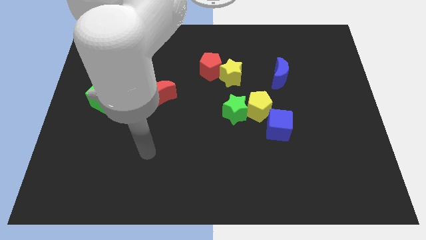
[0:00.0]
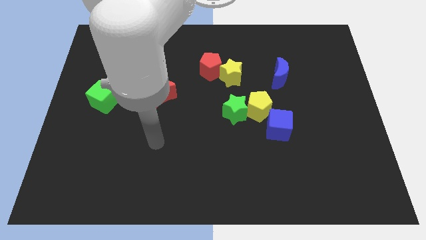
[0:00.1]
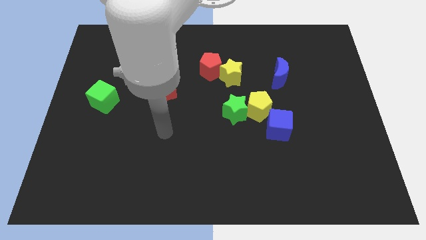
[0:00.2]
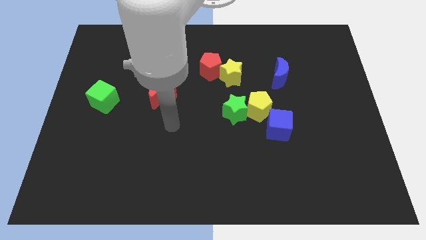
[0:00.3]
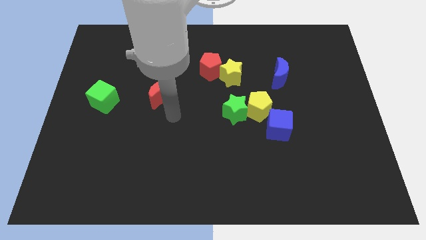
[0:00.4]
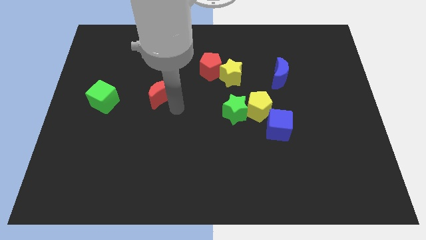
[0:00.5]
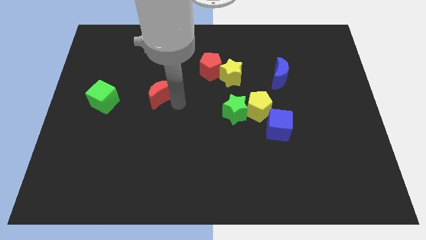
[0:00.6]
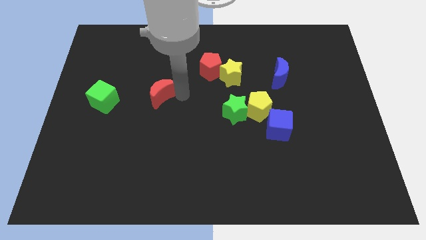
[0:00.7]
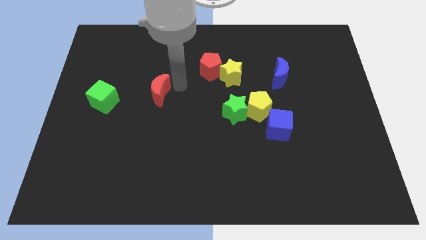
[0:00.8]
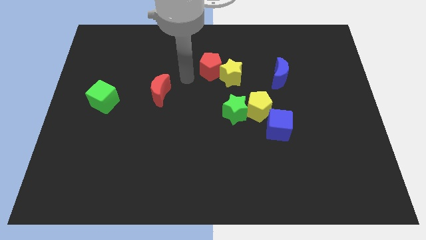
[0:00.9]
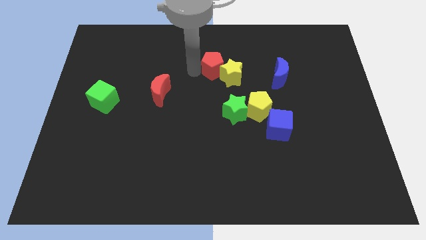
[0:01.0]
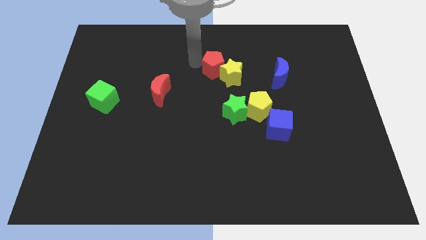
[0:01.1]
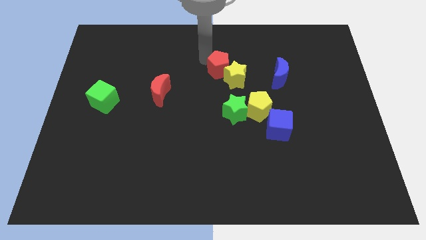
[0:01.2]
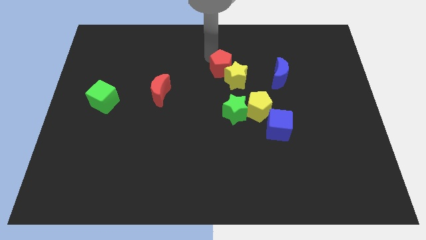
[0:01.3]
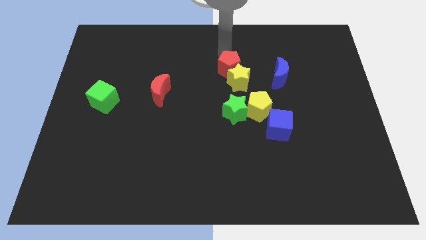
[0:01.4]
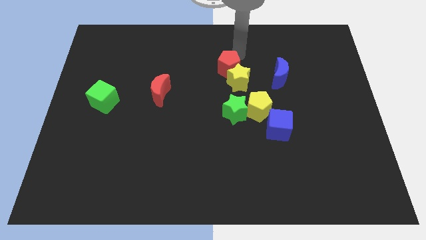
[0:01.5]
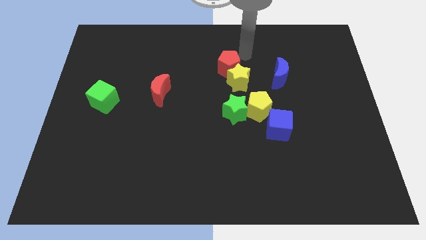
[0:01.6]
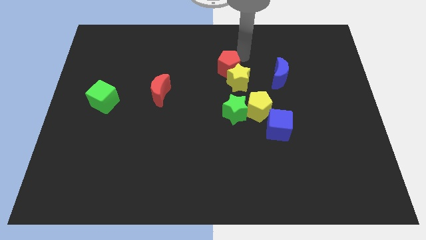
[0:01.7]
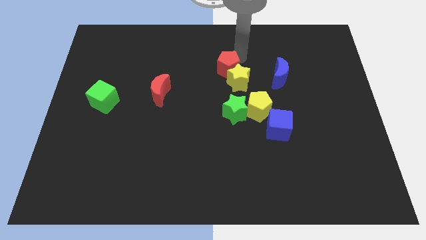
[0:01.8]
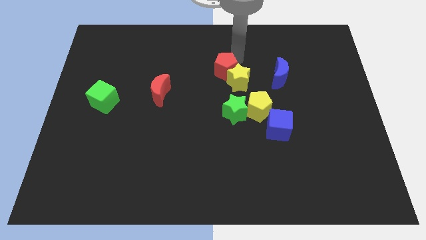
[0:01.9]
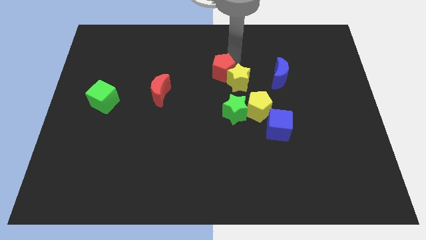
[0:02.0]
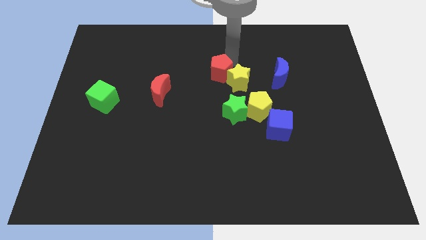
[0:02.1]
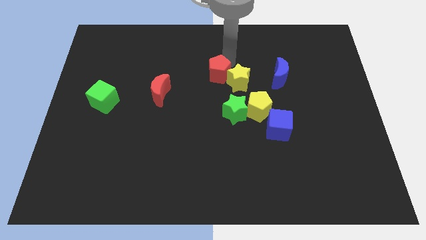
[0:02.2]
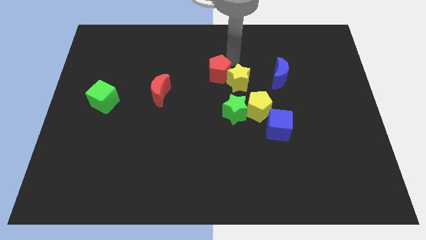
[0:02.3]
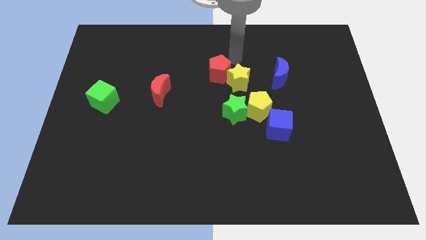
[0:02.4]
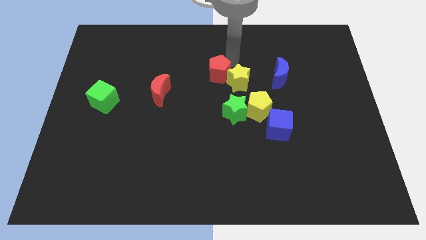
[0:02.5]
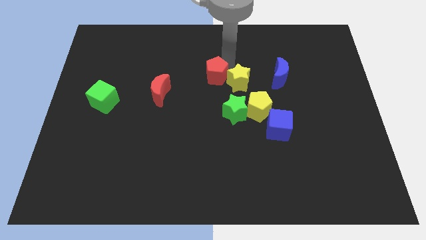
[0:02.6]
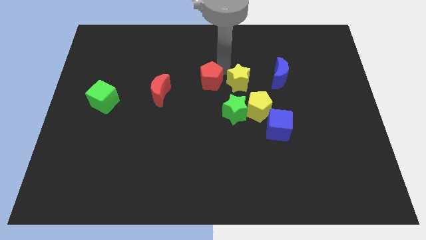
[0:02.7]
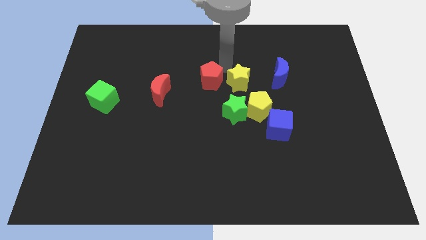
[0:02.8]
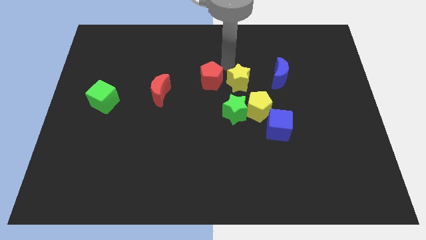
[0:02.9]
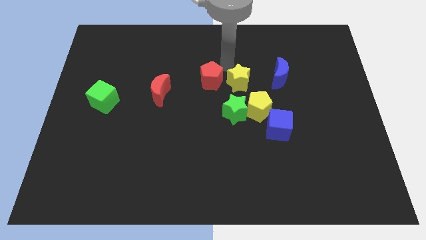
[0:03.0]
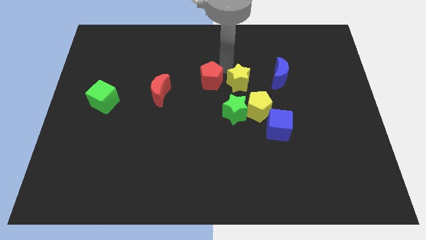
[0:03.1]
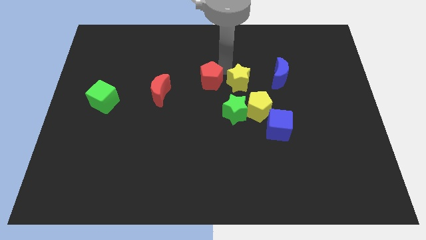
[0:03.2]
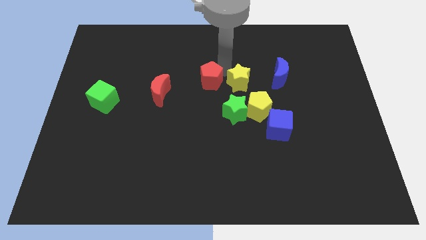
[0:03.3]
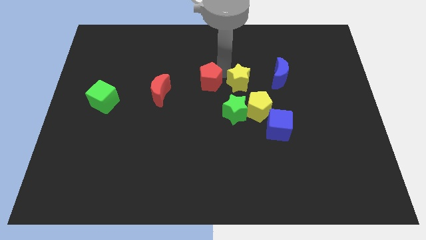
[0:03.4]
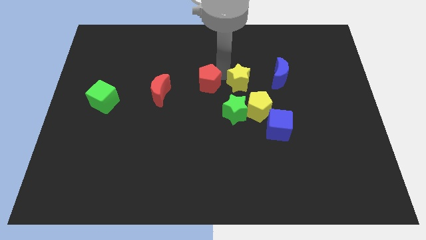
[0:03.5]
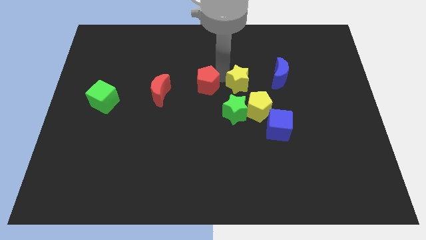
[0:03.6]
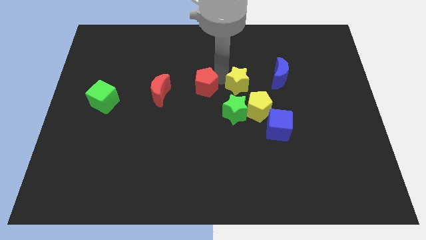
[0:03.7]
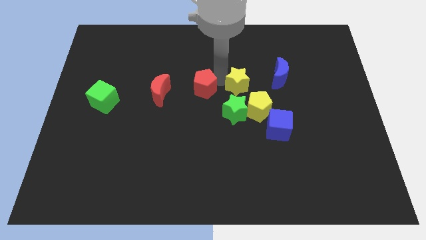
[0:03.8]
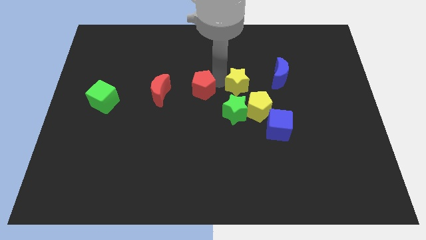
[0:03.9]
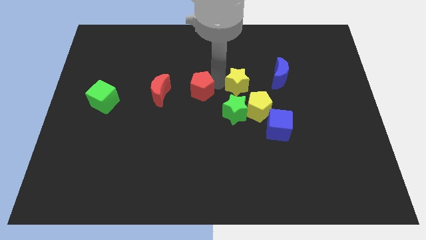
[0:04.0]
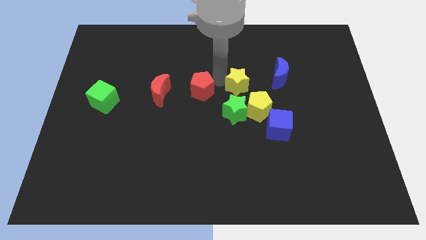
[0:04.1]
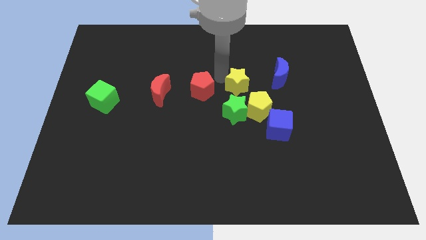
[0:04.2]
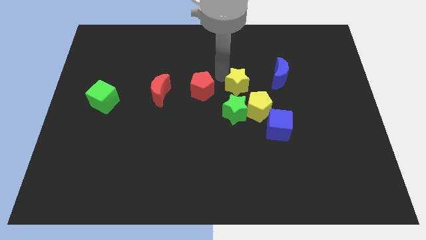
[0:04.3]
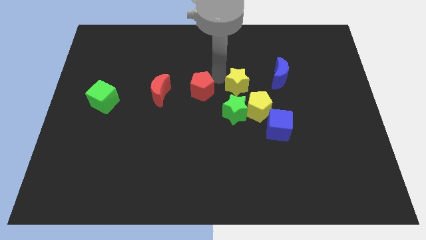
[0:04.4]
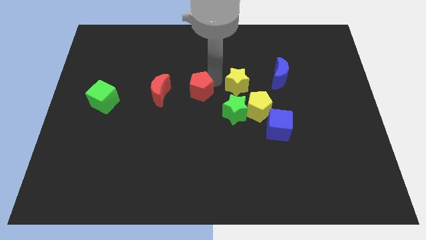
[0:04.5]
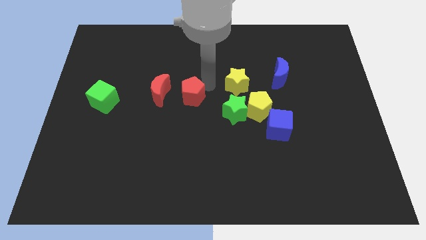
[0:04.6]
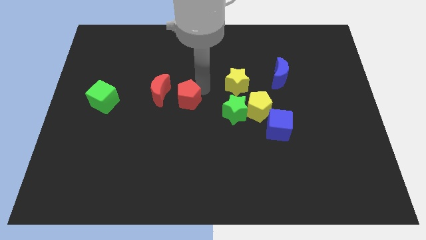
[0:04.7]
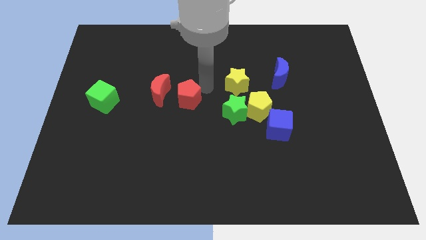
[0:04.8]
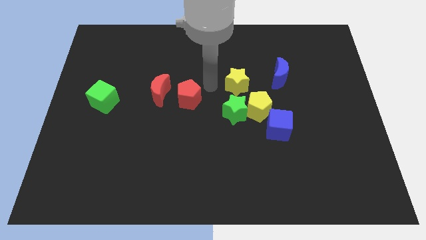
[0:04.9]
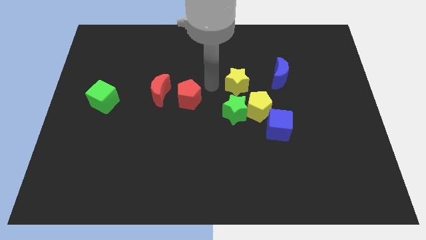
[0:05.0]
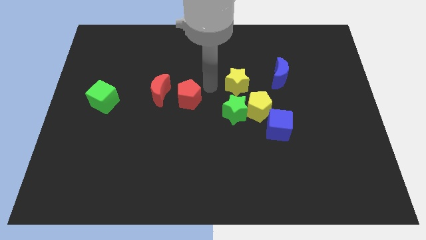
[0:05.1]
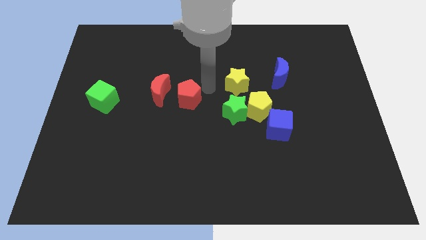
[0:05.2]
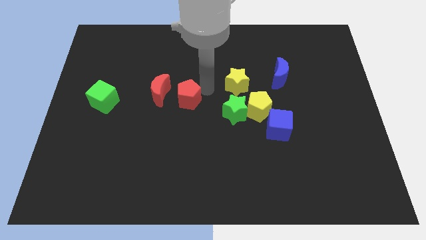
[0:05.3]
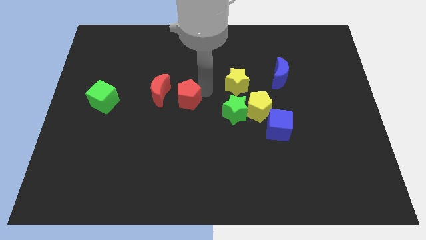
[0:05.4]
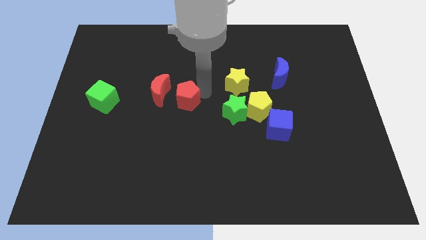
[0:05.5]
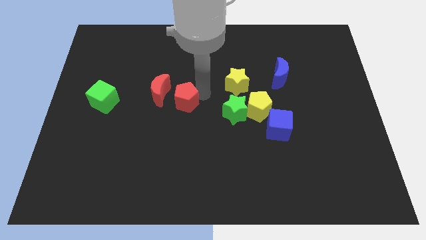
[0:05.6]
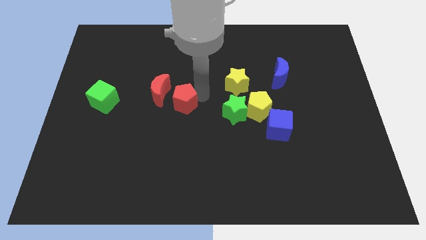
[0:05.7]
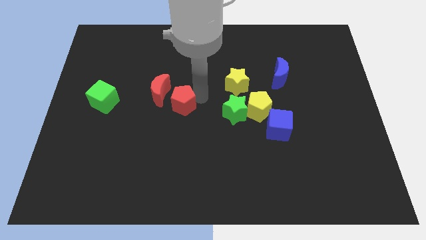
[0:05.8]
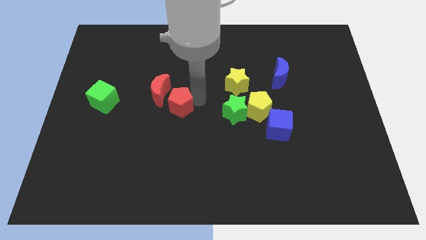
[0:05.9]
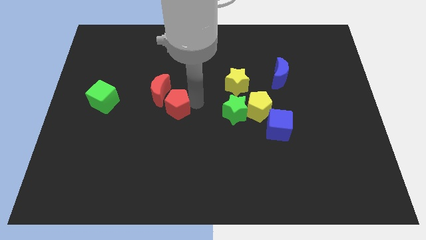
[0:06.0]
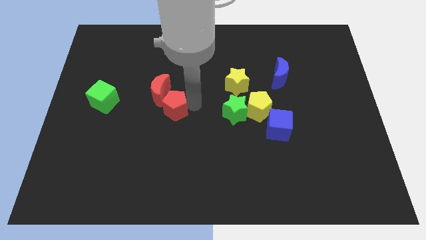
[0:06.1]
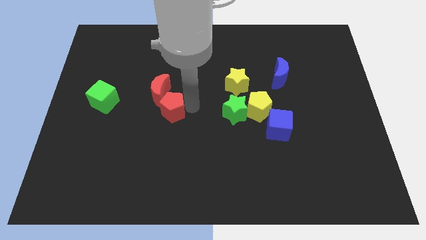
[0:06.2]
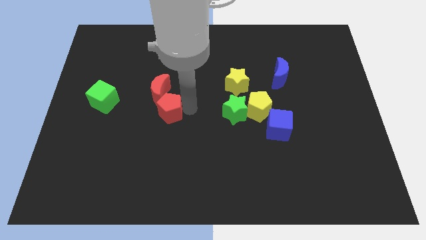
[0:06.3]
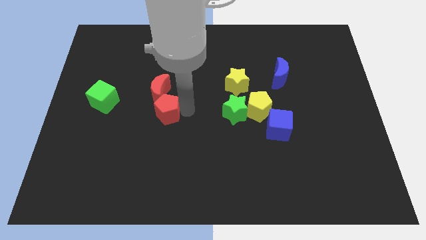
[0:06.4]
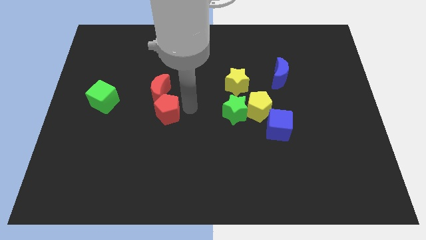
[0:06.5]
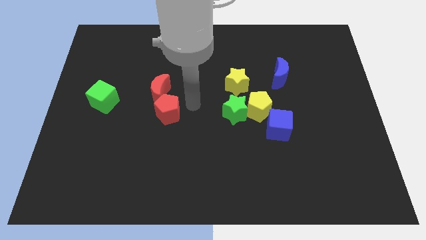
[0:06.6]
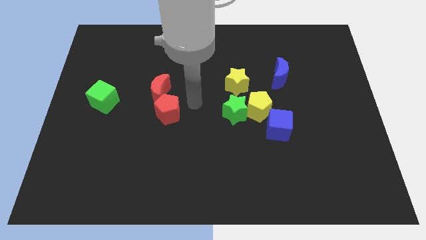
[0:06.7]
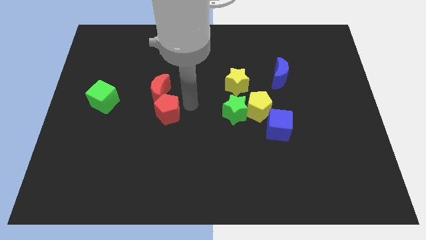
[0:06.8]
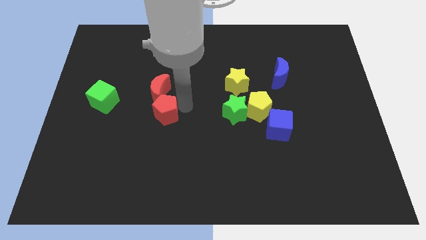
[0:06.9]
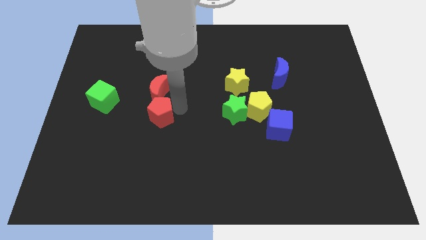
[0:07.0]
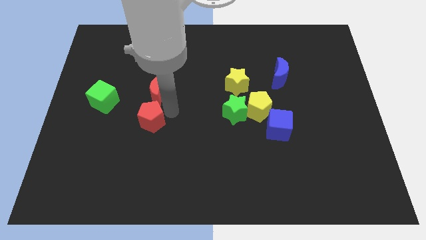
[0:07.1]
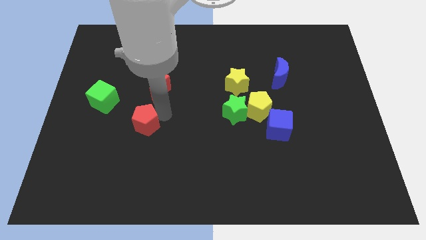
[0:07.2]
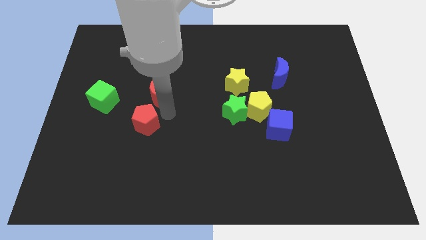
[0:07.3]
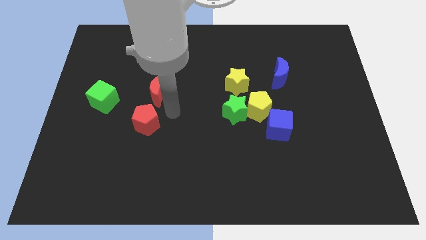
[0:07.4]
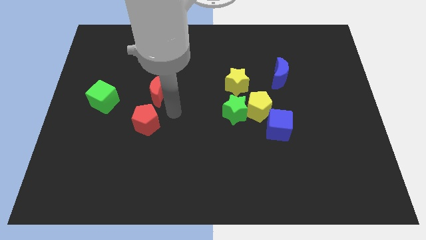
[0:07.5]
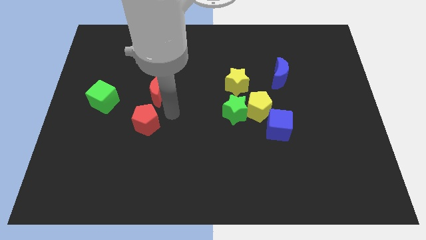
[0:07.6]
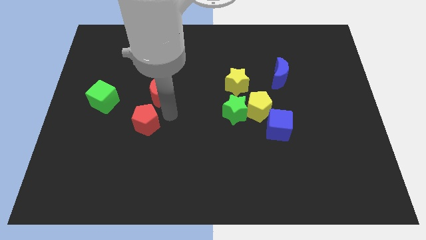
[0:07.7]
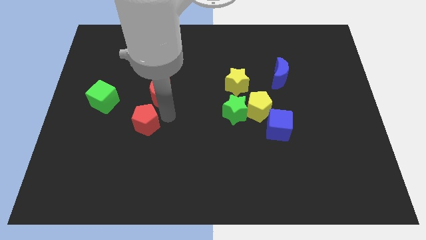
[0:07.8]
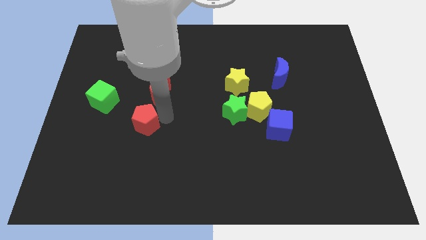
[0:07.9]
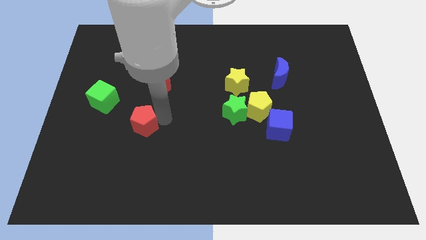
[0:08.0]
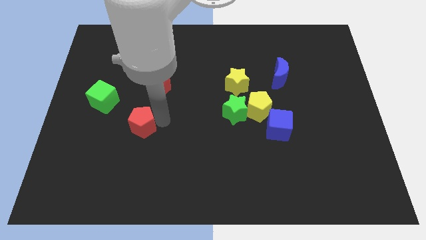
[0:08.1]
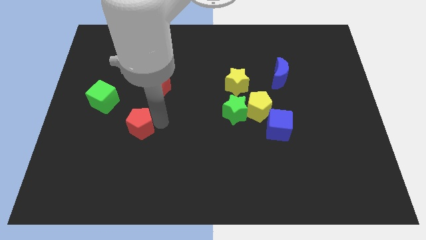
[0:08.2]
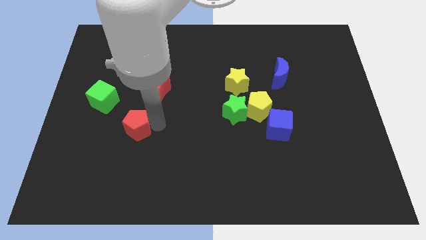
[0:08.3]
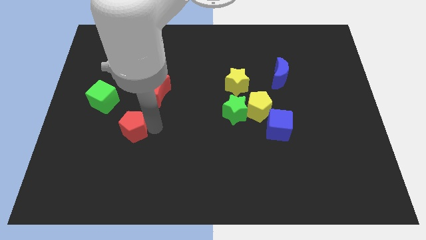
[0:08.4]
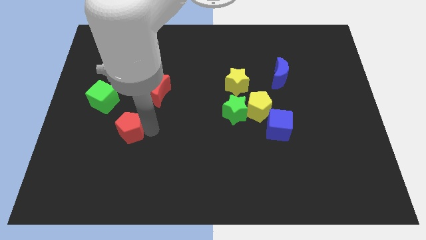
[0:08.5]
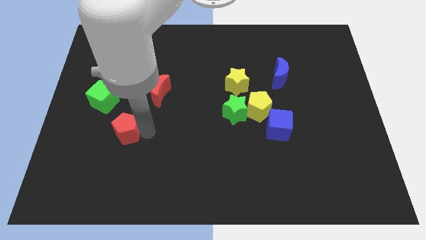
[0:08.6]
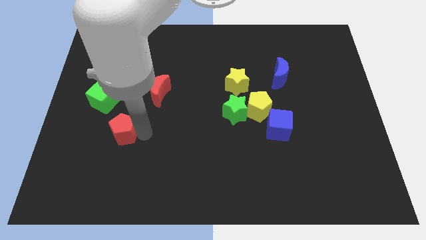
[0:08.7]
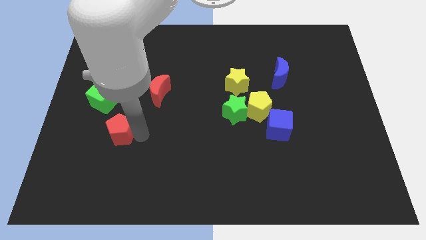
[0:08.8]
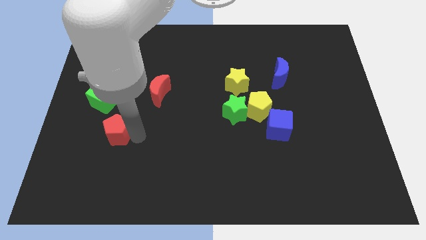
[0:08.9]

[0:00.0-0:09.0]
slide the red pentagon to the bottom side of the green cube
